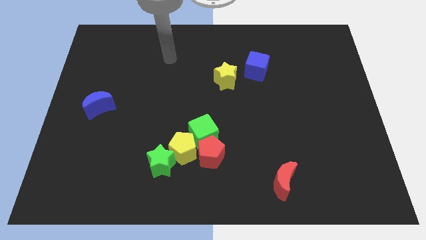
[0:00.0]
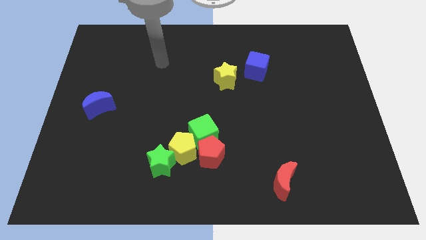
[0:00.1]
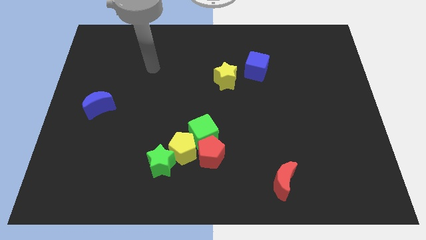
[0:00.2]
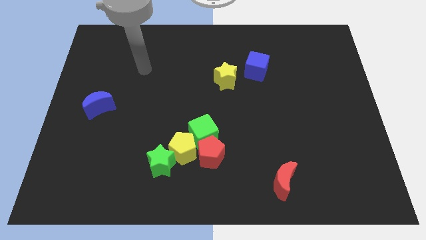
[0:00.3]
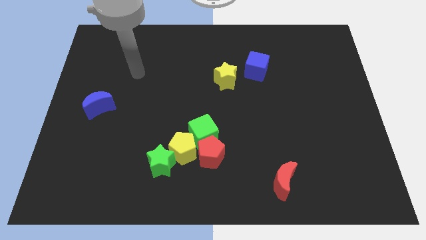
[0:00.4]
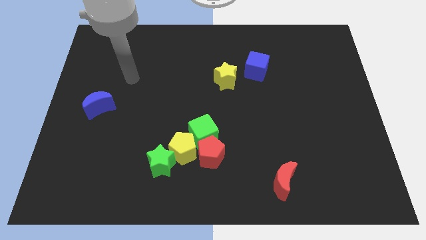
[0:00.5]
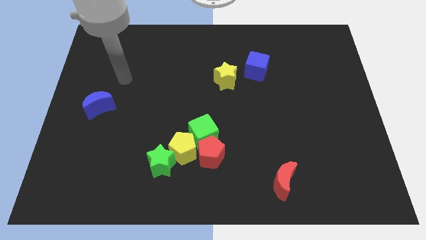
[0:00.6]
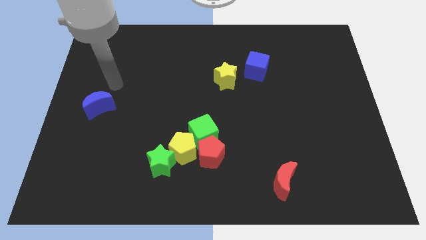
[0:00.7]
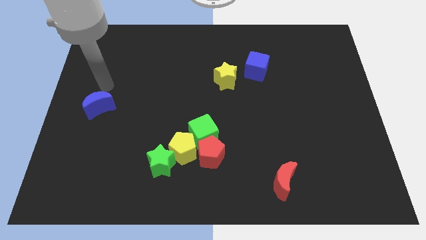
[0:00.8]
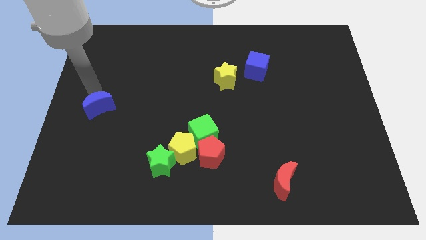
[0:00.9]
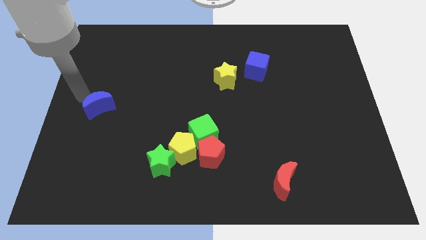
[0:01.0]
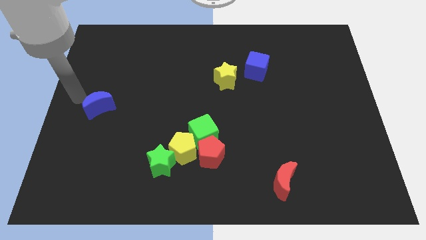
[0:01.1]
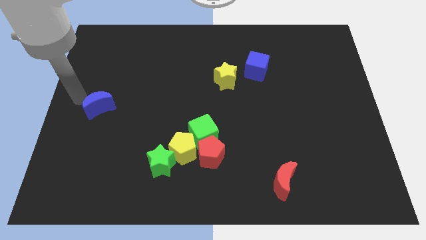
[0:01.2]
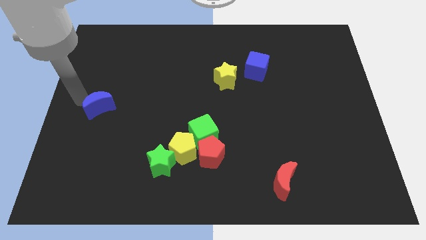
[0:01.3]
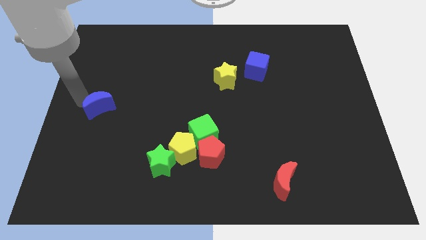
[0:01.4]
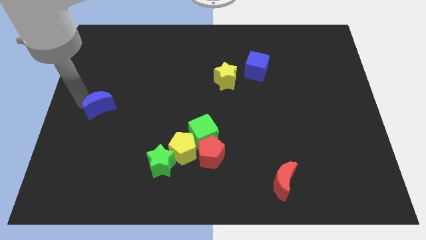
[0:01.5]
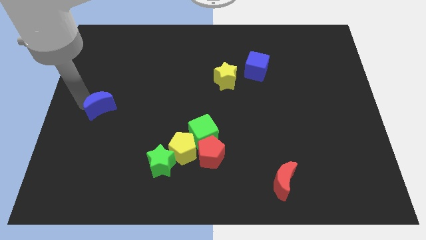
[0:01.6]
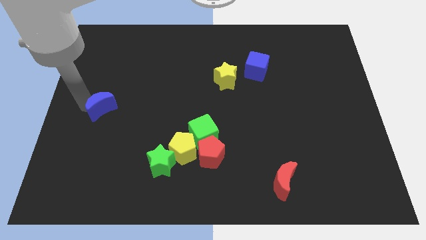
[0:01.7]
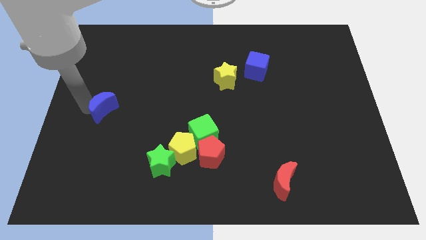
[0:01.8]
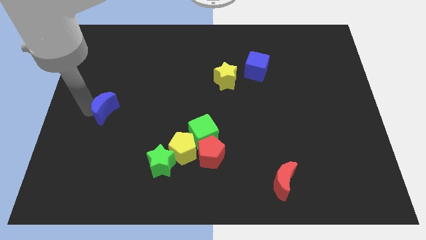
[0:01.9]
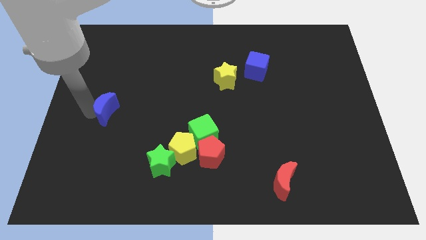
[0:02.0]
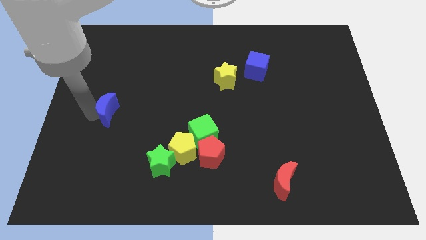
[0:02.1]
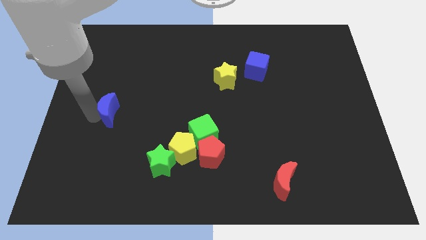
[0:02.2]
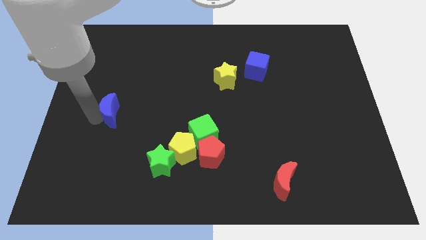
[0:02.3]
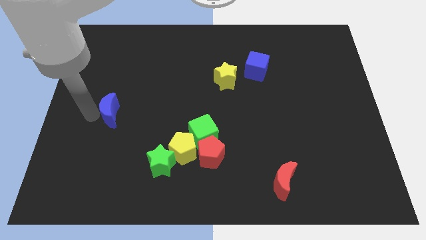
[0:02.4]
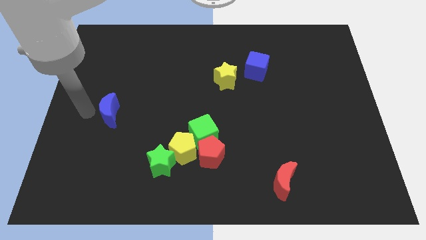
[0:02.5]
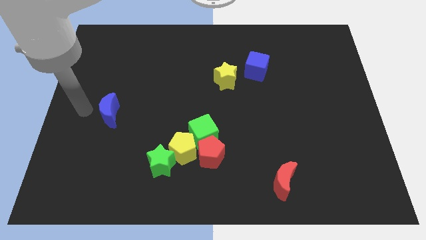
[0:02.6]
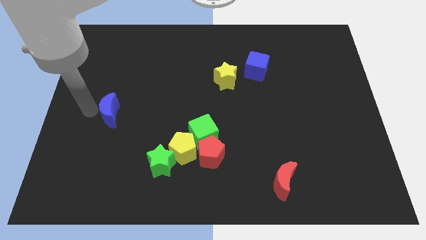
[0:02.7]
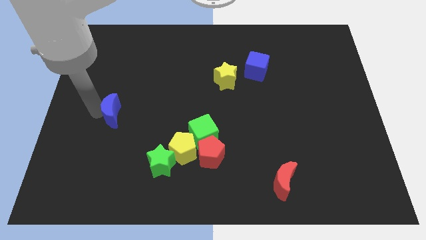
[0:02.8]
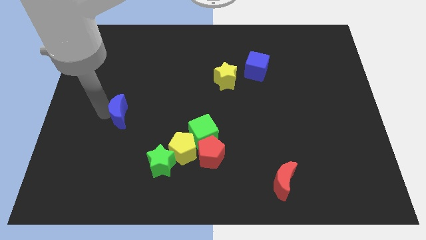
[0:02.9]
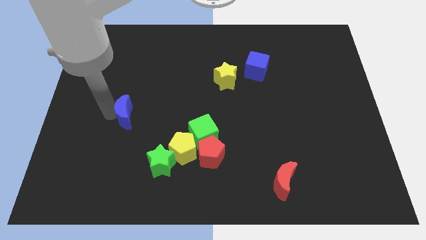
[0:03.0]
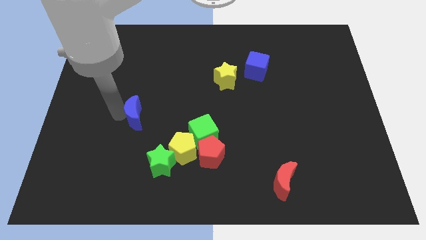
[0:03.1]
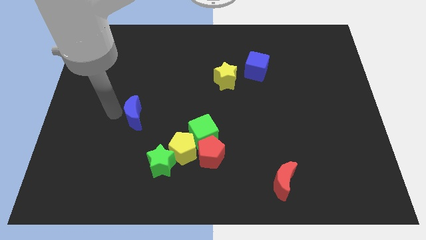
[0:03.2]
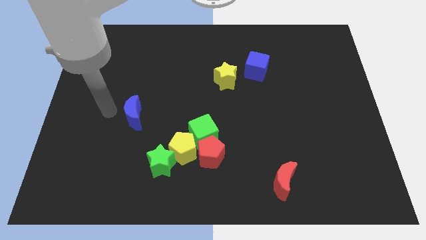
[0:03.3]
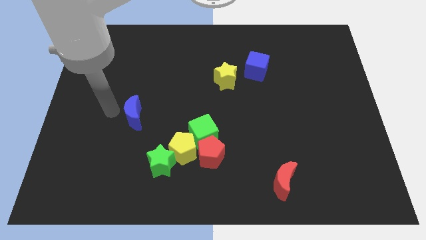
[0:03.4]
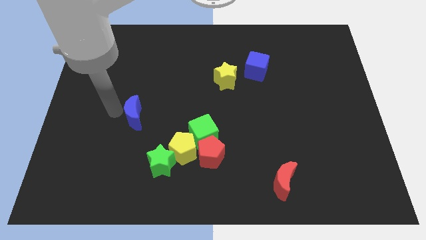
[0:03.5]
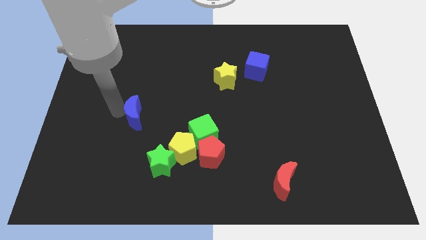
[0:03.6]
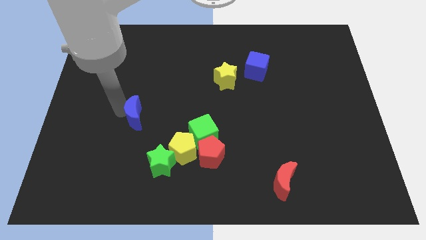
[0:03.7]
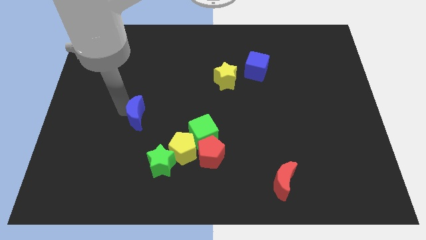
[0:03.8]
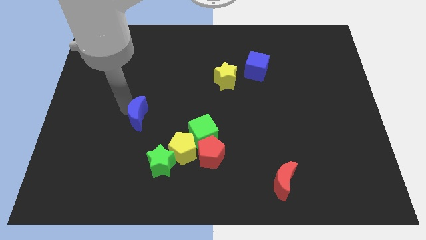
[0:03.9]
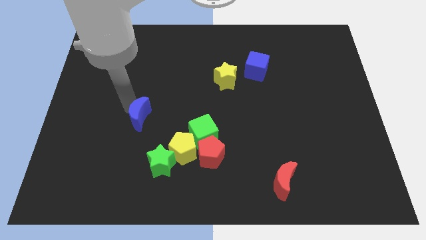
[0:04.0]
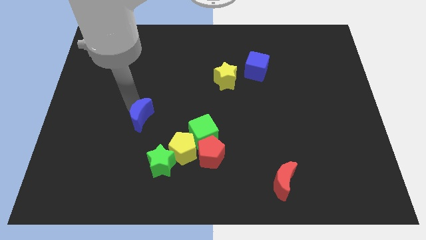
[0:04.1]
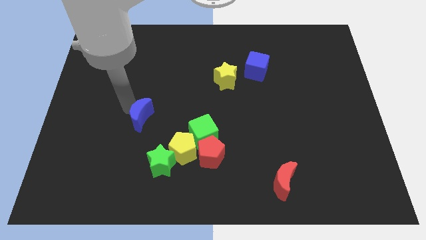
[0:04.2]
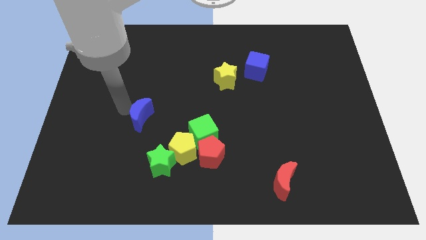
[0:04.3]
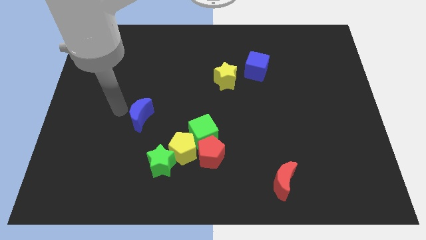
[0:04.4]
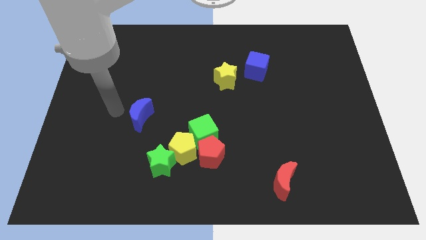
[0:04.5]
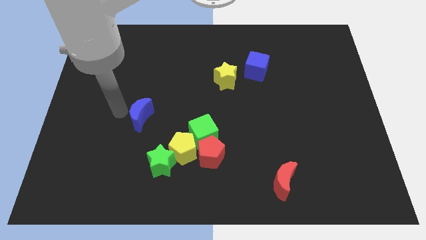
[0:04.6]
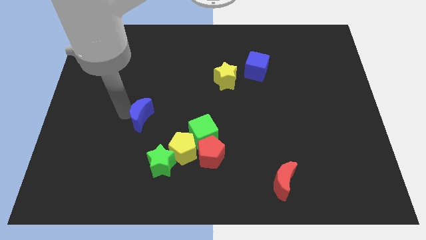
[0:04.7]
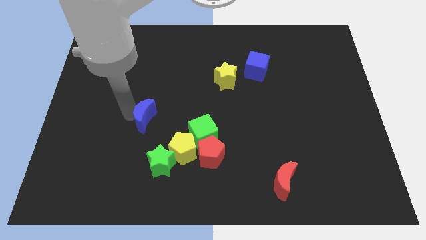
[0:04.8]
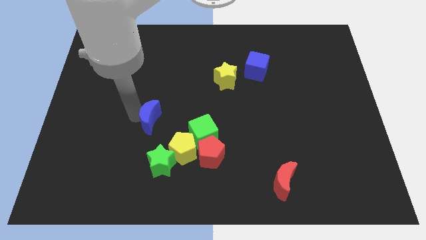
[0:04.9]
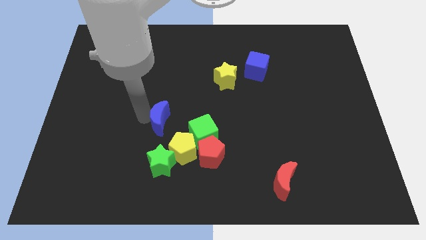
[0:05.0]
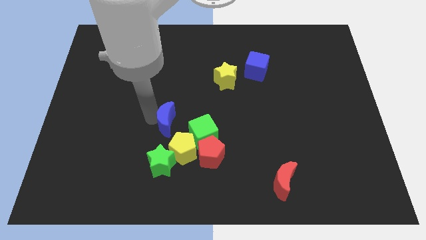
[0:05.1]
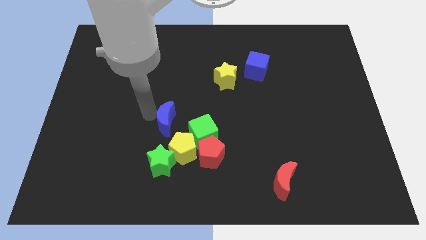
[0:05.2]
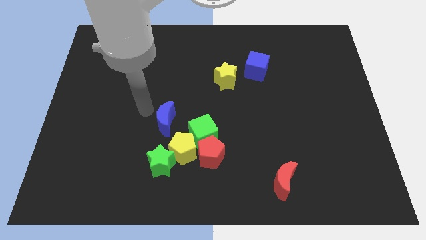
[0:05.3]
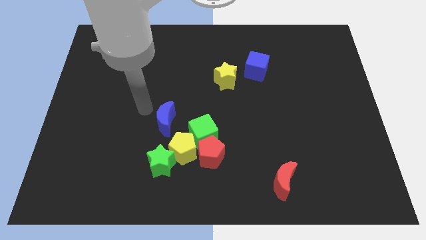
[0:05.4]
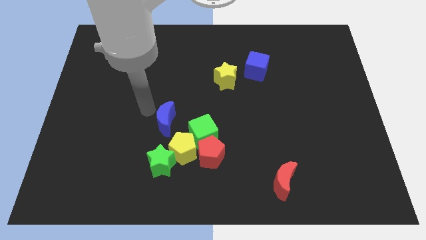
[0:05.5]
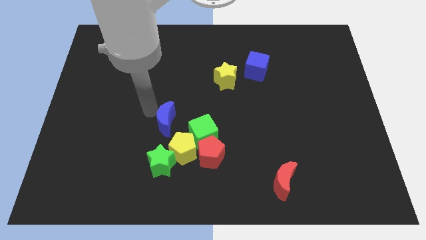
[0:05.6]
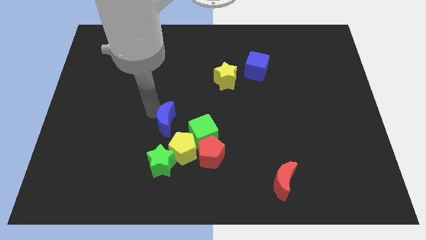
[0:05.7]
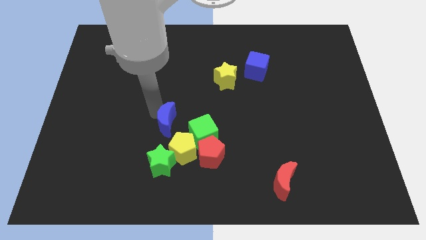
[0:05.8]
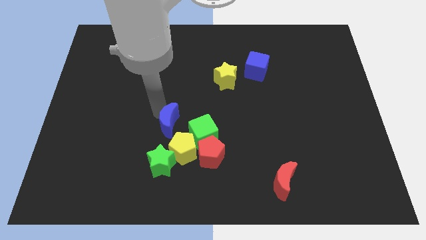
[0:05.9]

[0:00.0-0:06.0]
move the blue moon to the top left of the red pentagon

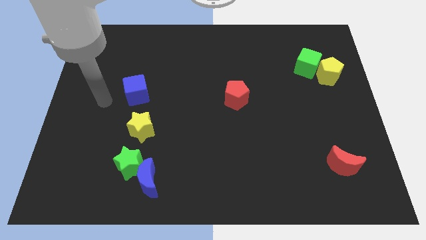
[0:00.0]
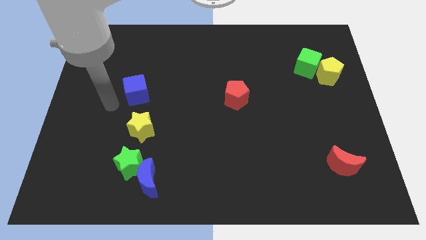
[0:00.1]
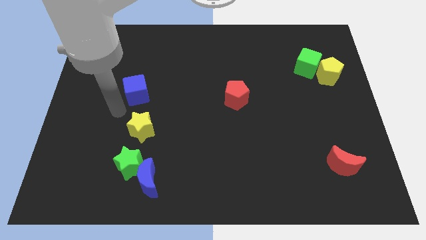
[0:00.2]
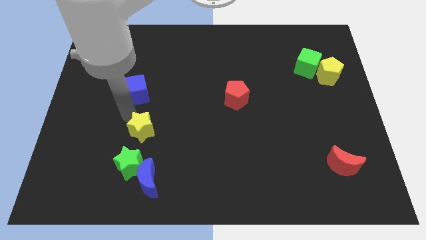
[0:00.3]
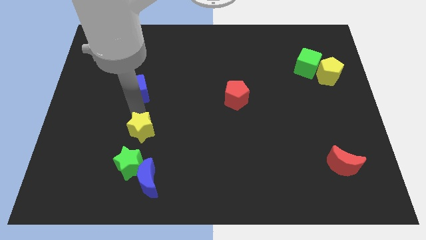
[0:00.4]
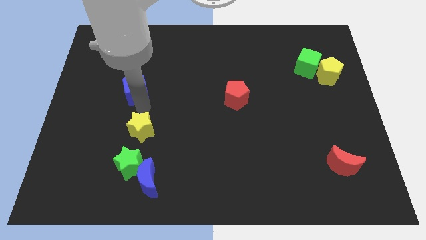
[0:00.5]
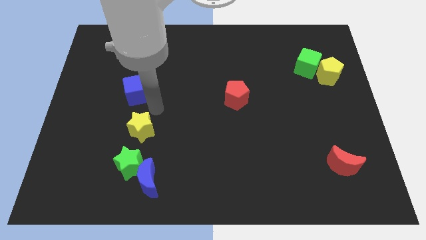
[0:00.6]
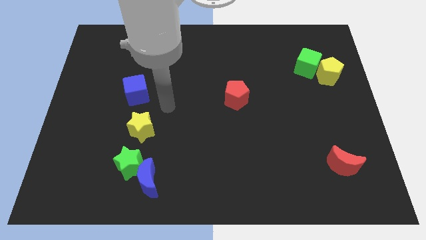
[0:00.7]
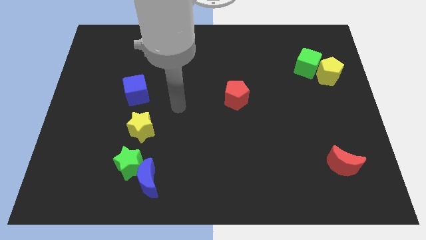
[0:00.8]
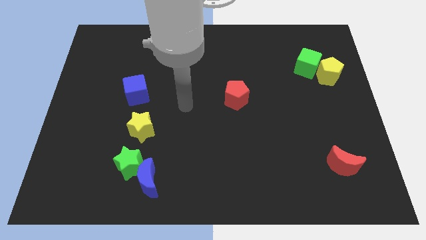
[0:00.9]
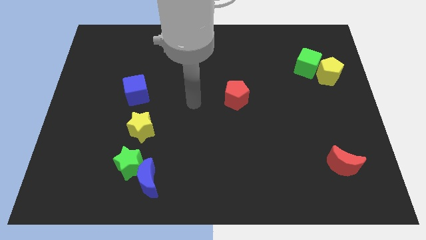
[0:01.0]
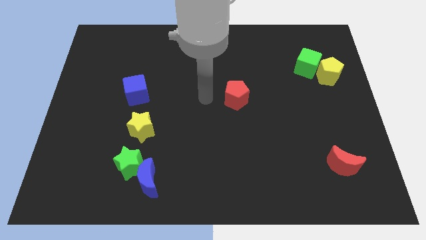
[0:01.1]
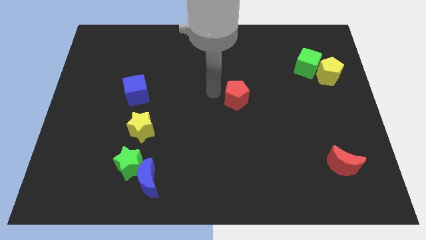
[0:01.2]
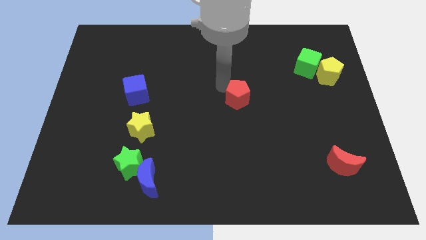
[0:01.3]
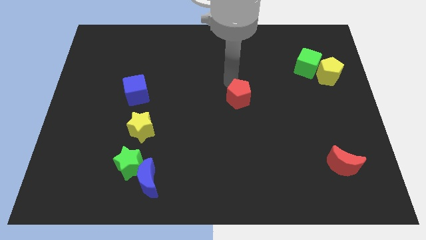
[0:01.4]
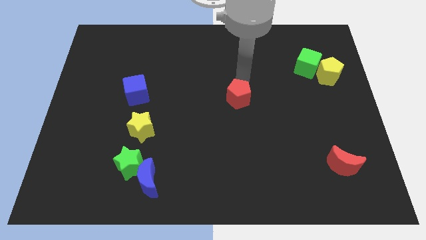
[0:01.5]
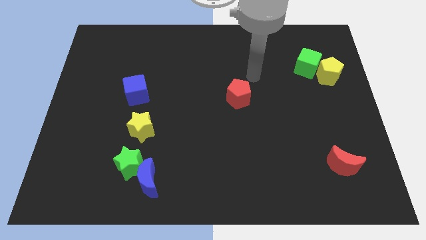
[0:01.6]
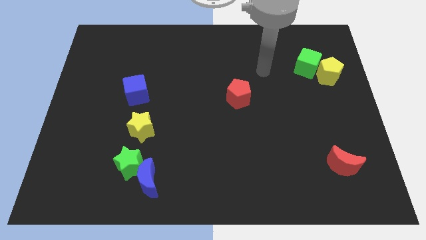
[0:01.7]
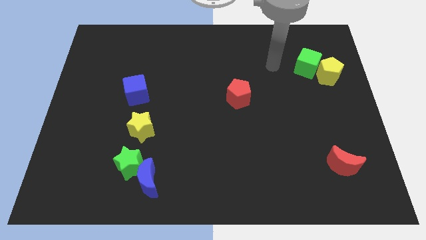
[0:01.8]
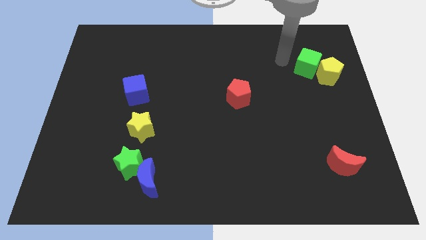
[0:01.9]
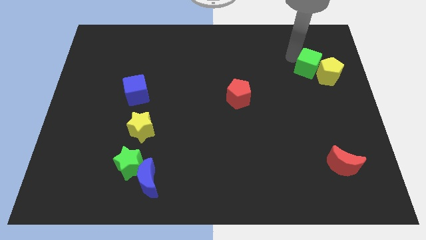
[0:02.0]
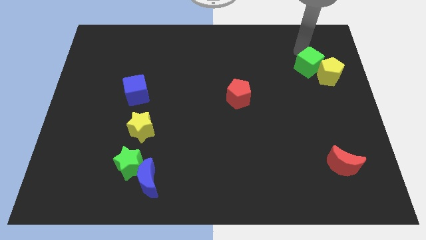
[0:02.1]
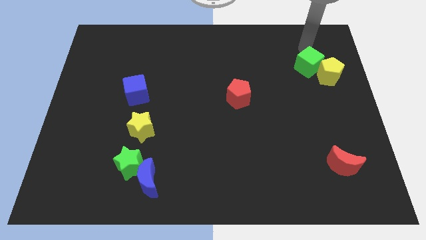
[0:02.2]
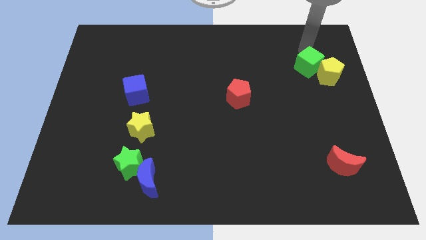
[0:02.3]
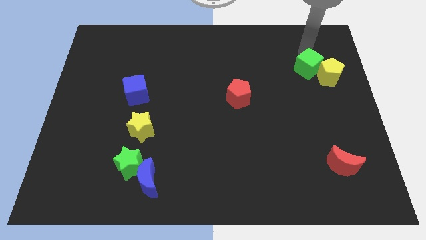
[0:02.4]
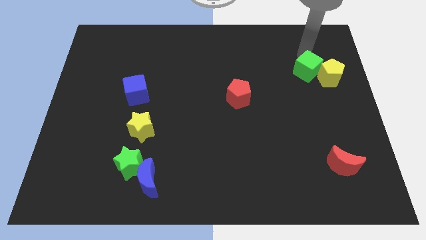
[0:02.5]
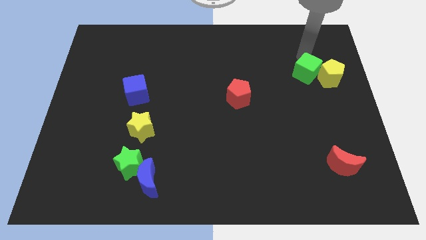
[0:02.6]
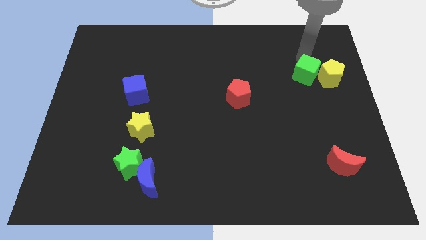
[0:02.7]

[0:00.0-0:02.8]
slide the green cube diagonally down and to the left of the yellow pentagon
